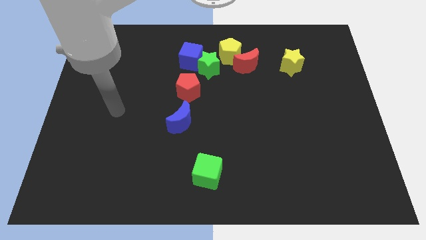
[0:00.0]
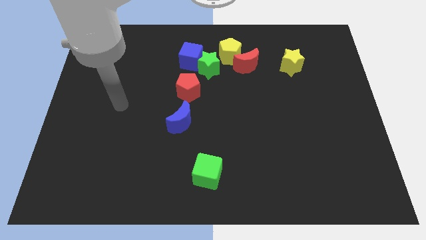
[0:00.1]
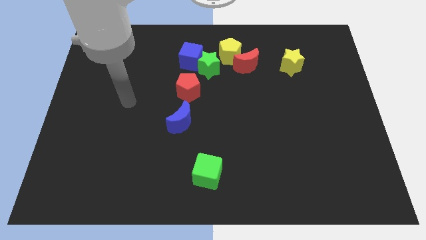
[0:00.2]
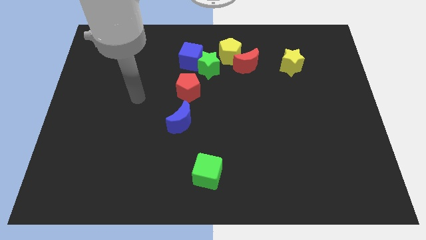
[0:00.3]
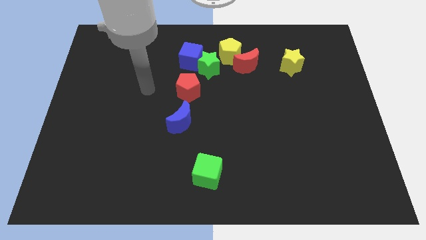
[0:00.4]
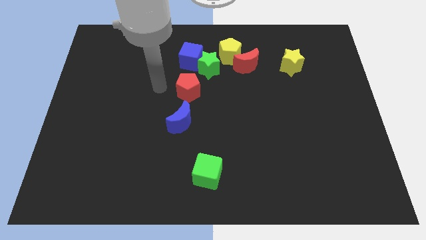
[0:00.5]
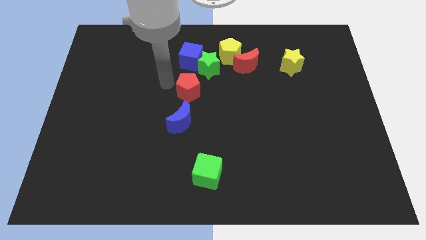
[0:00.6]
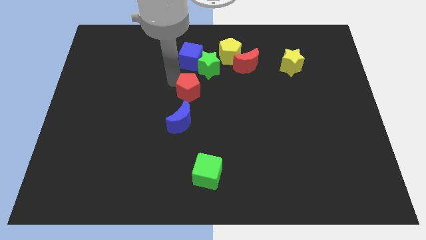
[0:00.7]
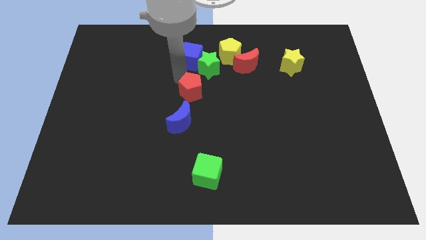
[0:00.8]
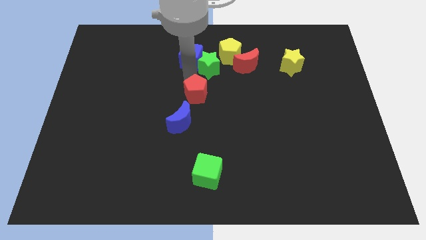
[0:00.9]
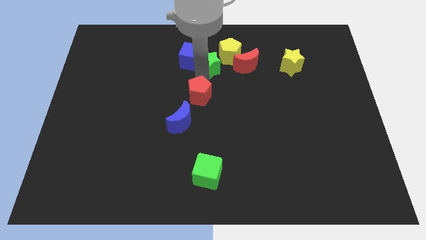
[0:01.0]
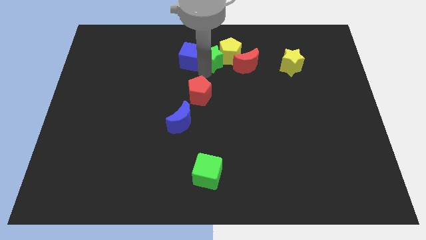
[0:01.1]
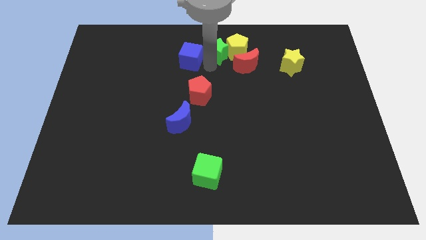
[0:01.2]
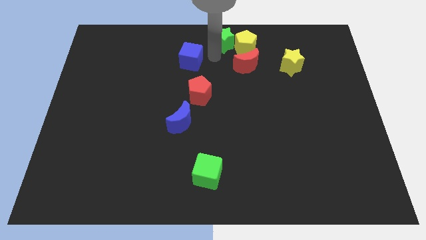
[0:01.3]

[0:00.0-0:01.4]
move the blue cube away from the green star and yellow pentagon

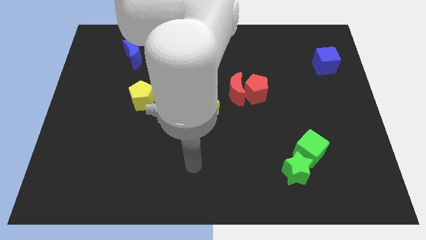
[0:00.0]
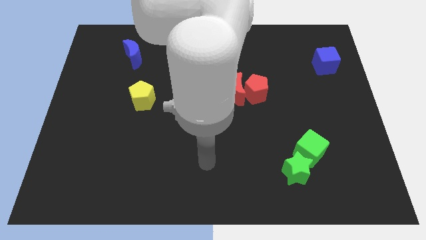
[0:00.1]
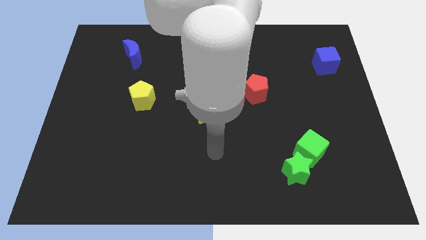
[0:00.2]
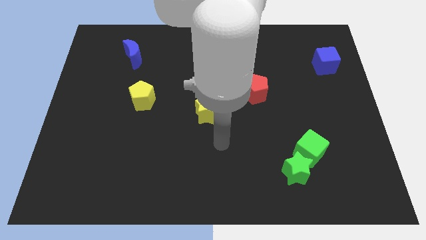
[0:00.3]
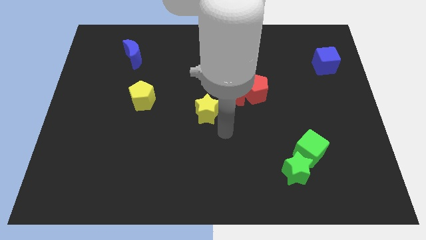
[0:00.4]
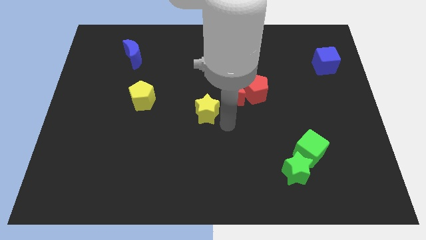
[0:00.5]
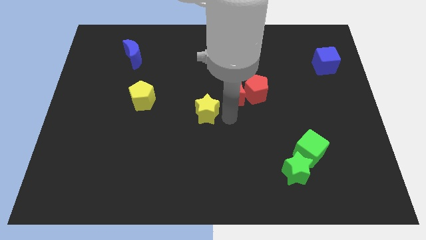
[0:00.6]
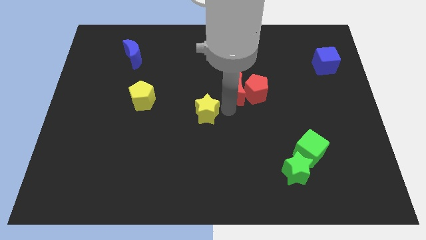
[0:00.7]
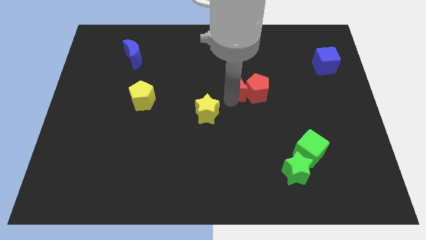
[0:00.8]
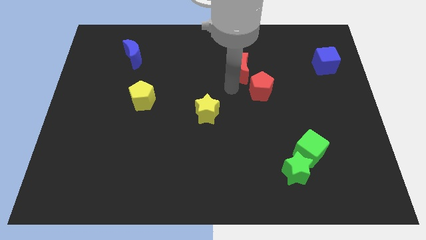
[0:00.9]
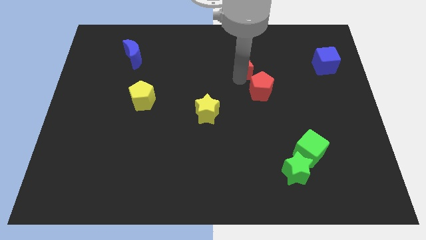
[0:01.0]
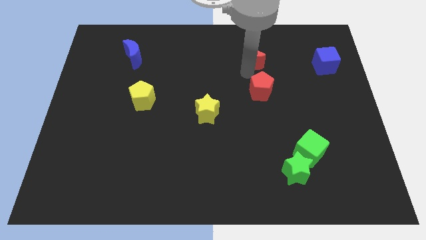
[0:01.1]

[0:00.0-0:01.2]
move the red pentagon away from the red moon

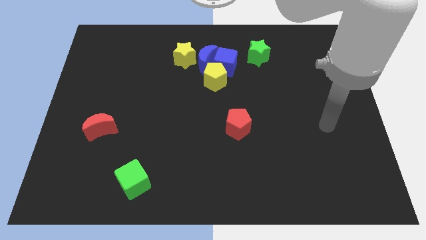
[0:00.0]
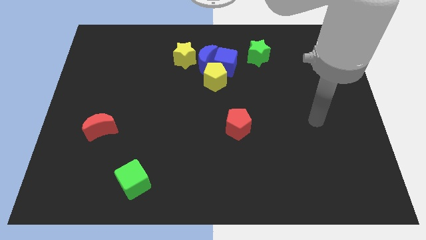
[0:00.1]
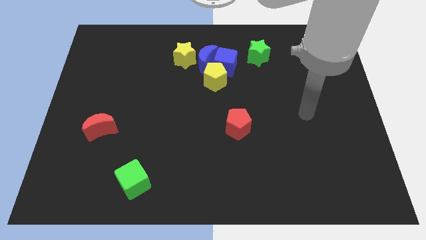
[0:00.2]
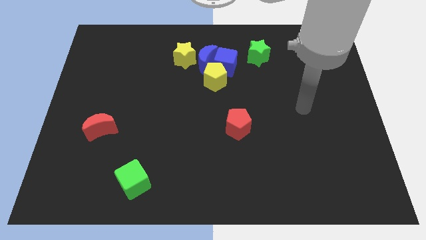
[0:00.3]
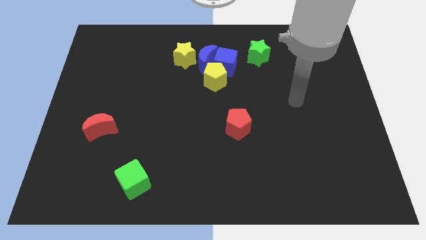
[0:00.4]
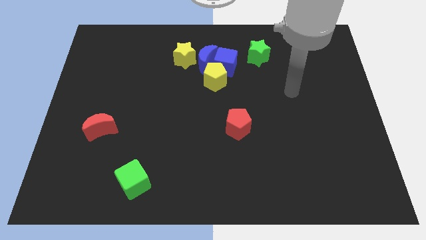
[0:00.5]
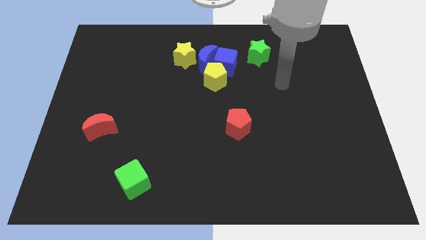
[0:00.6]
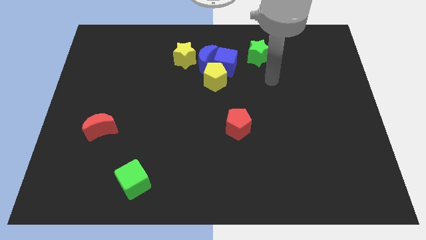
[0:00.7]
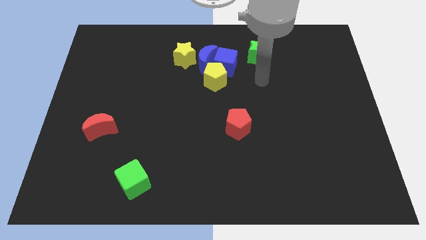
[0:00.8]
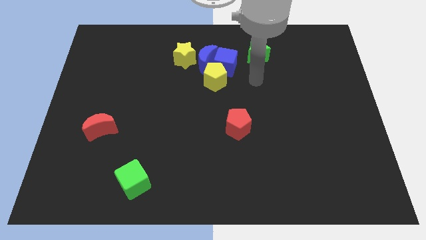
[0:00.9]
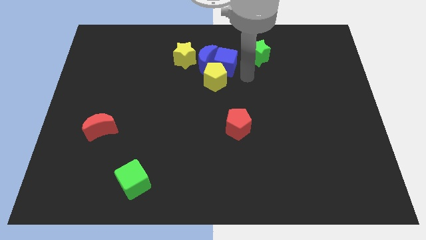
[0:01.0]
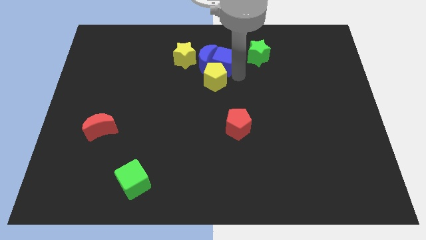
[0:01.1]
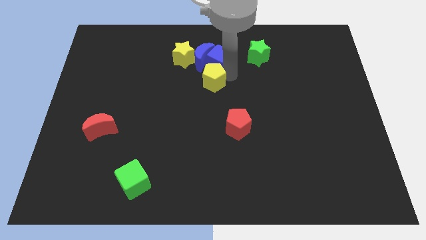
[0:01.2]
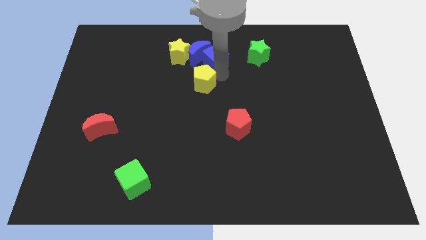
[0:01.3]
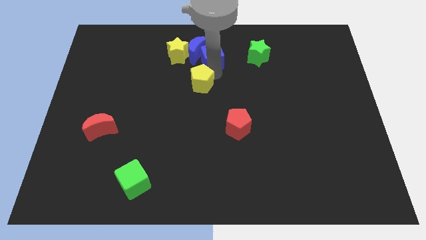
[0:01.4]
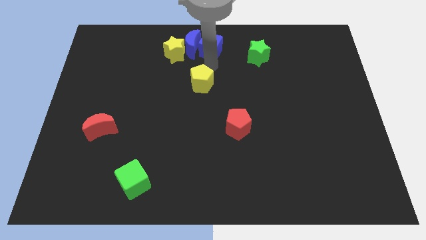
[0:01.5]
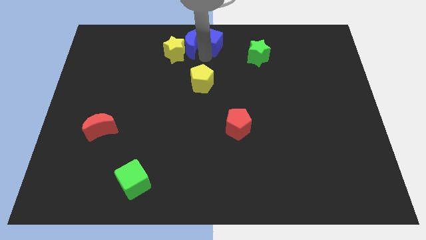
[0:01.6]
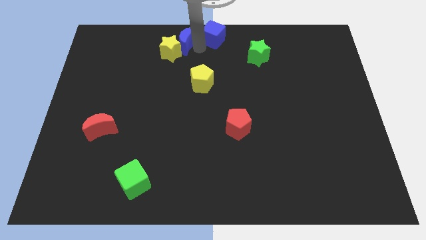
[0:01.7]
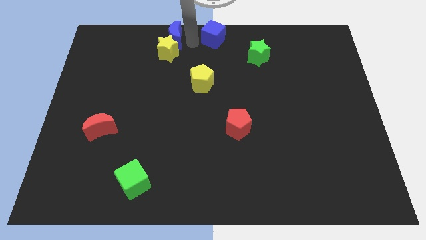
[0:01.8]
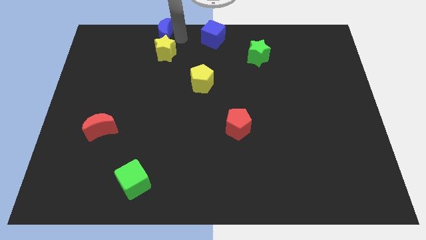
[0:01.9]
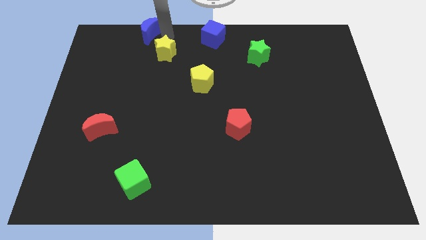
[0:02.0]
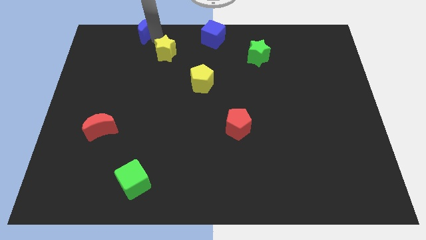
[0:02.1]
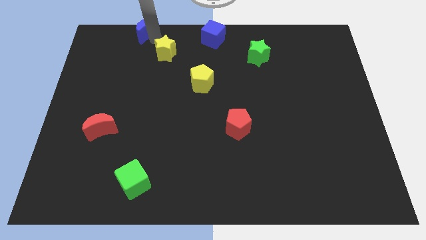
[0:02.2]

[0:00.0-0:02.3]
move the yellow star away from the blue moon

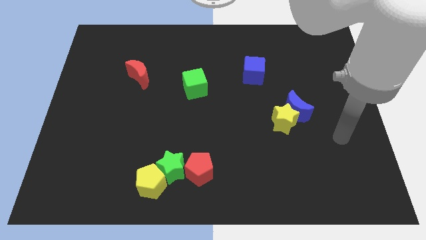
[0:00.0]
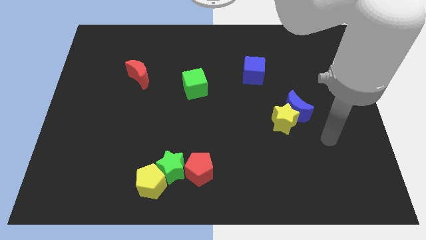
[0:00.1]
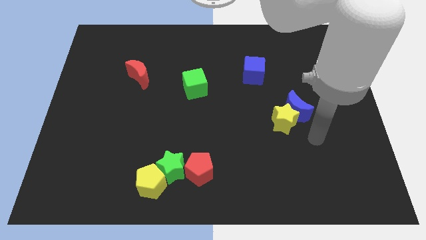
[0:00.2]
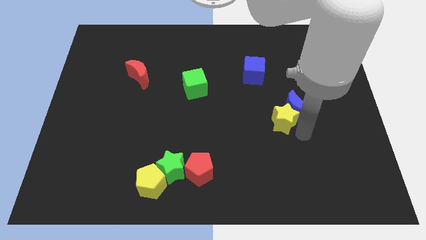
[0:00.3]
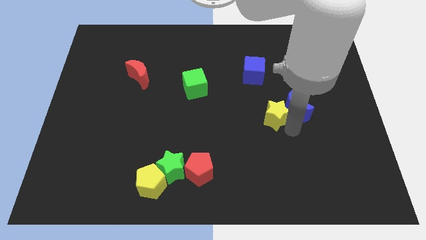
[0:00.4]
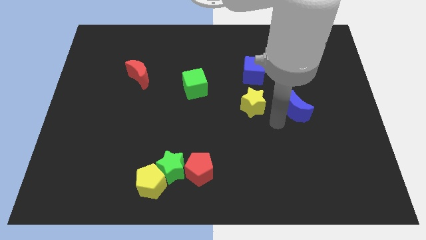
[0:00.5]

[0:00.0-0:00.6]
move the blue moon away from the yellow star

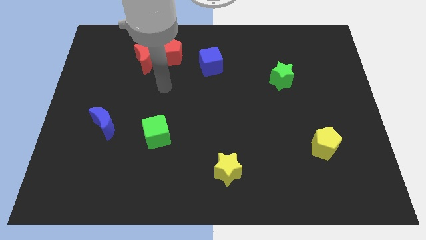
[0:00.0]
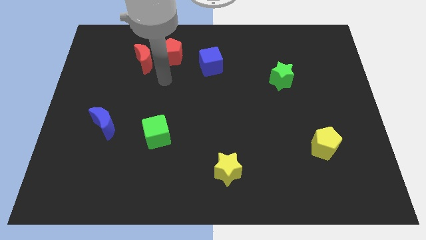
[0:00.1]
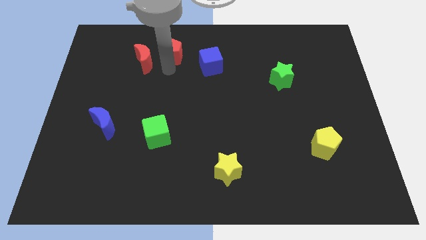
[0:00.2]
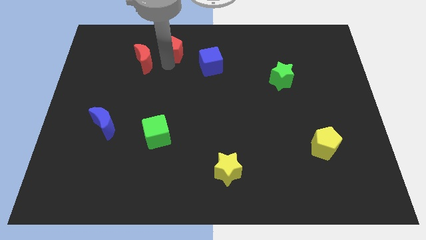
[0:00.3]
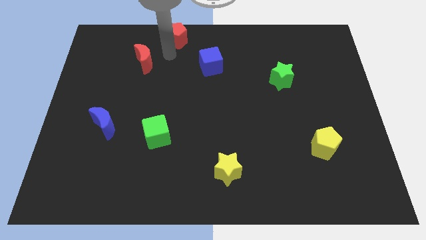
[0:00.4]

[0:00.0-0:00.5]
pull the red moon apart from the red pentagon

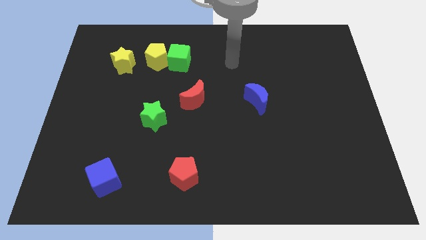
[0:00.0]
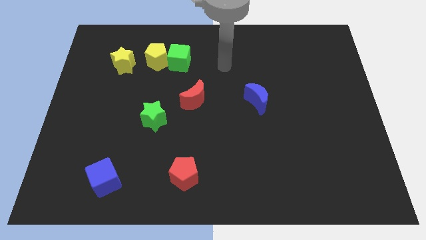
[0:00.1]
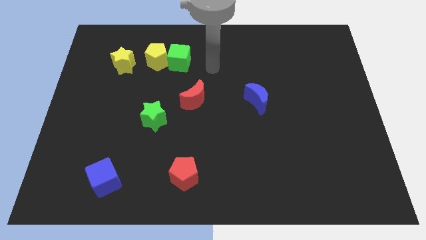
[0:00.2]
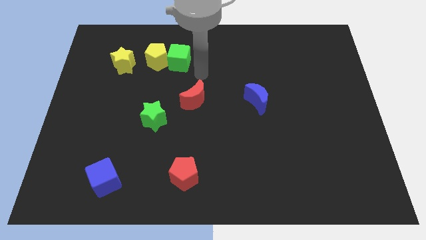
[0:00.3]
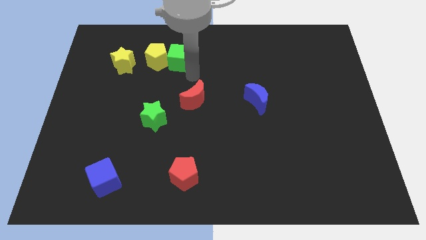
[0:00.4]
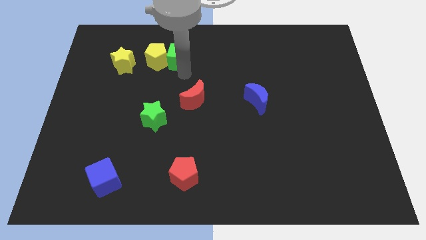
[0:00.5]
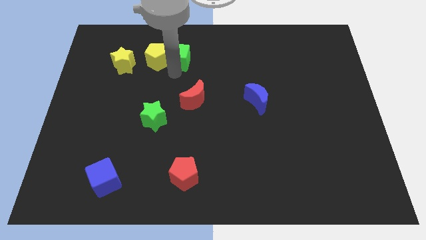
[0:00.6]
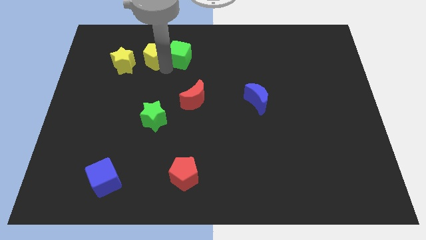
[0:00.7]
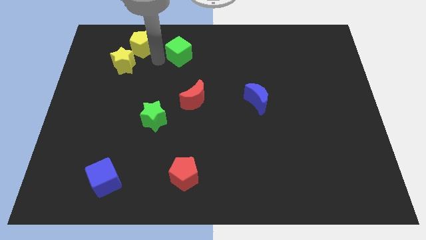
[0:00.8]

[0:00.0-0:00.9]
move the green cube away from the yellow pentagon

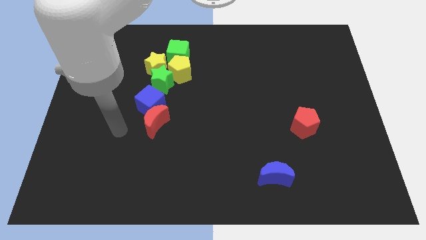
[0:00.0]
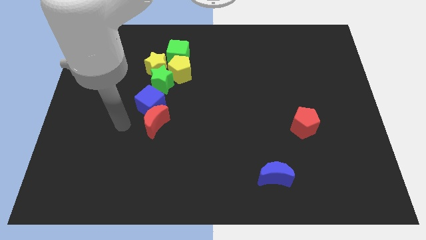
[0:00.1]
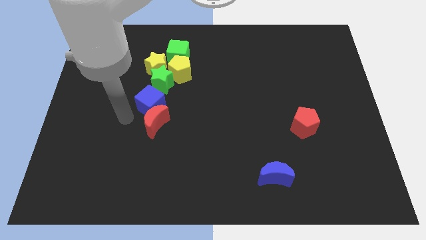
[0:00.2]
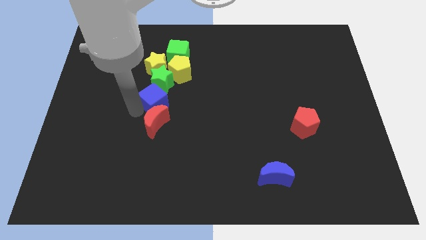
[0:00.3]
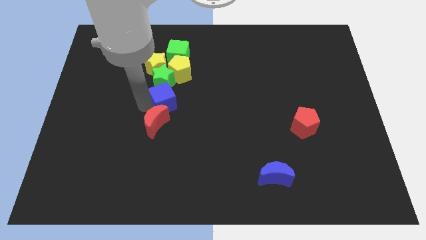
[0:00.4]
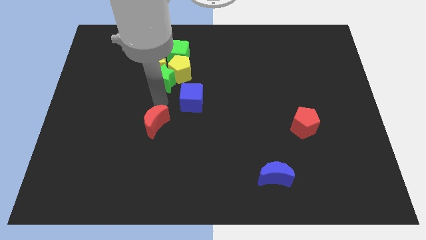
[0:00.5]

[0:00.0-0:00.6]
pull the red moon apart from the blue cube

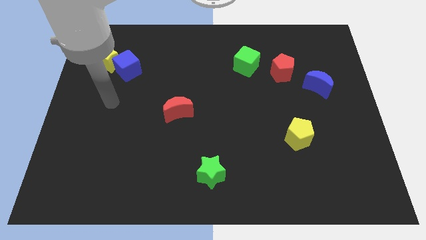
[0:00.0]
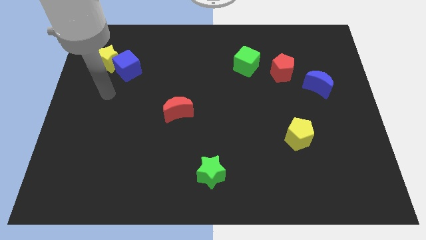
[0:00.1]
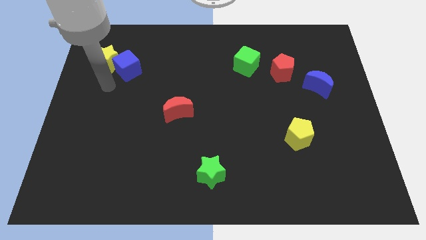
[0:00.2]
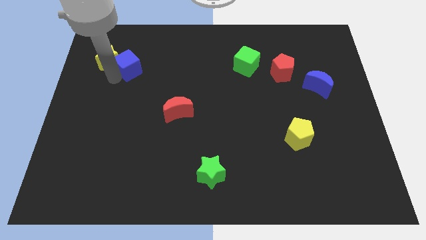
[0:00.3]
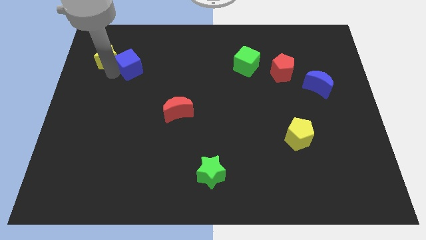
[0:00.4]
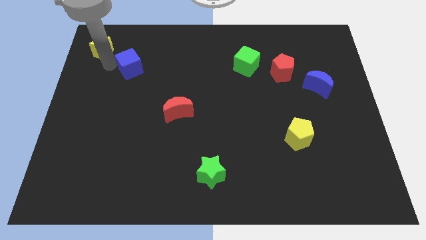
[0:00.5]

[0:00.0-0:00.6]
separate the blue cube from the yellow star

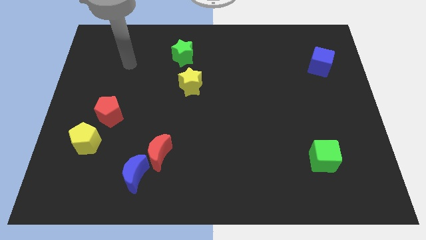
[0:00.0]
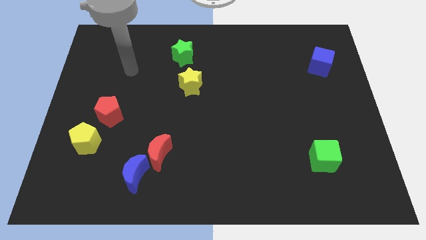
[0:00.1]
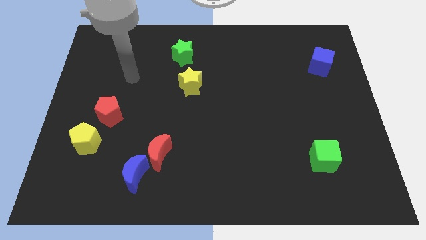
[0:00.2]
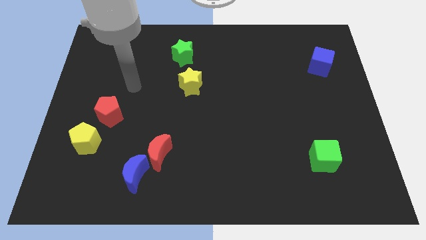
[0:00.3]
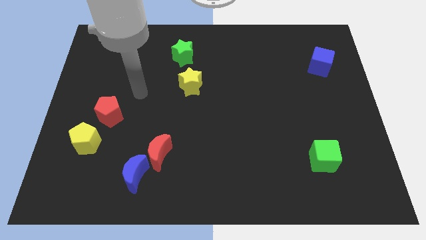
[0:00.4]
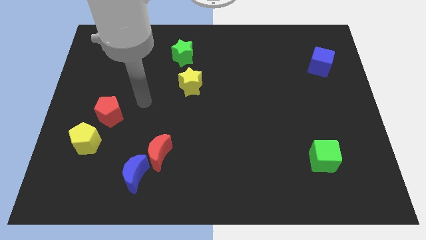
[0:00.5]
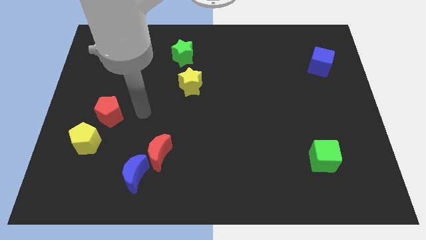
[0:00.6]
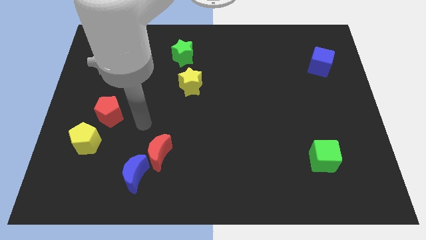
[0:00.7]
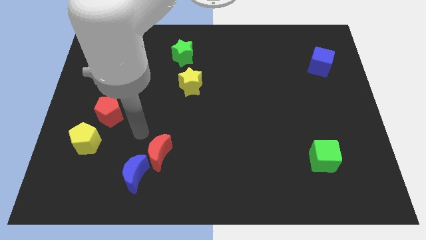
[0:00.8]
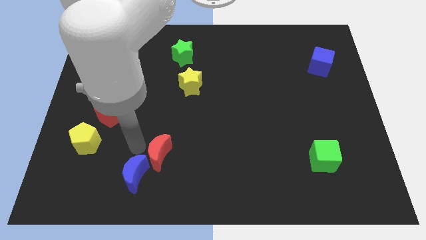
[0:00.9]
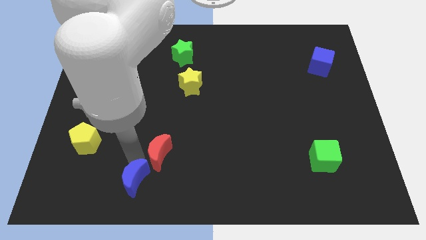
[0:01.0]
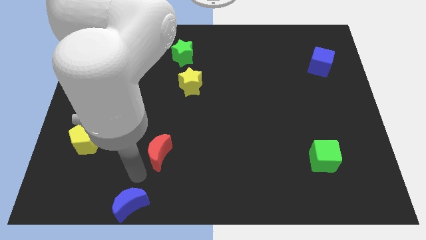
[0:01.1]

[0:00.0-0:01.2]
pull the red moon apart from the blue moon

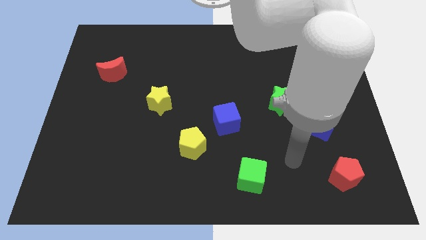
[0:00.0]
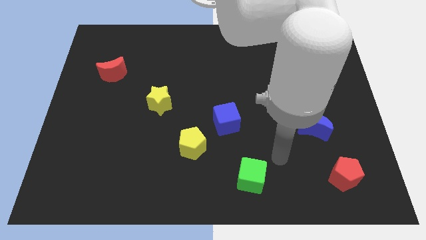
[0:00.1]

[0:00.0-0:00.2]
pull the blue cube apart from the yellow pentagon
